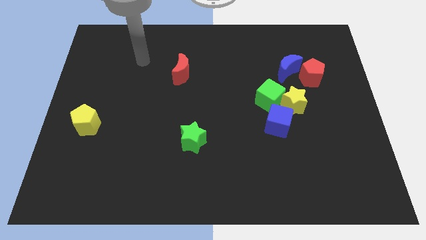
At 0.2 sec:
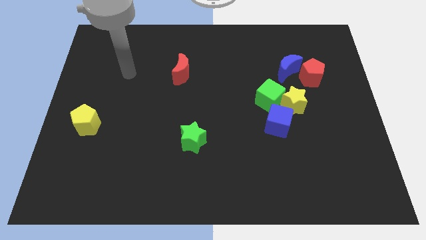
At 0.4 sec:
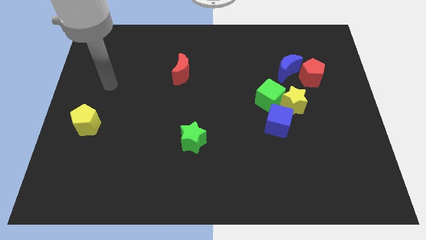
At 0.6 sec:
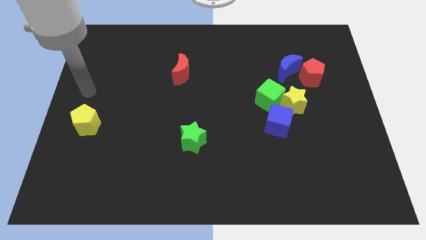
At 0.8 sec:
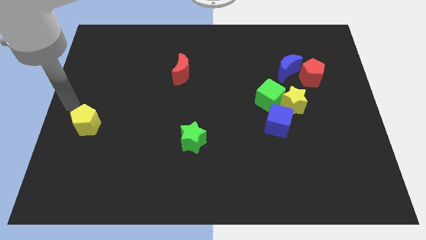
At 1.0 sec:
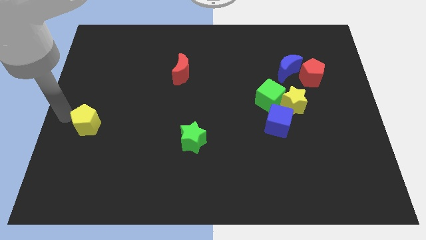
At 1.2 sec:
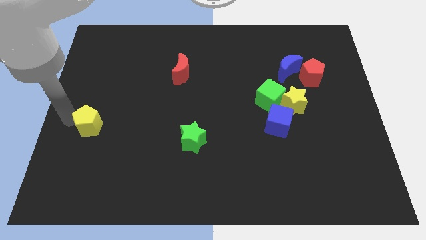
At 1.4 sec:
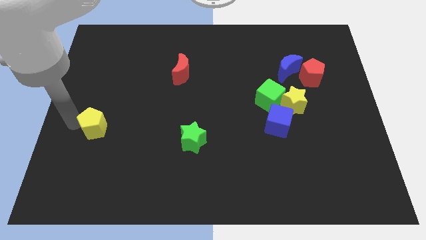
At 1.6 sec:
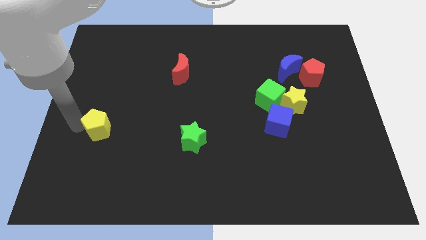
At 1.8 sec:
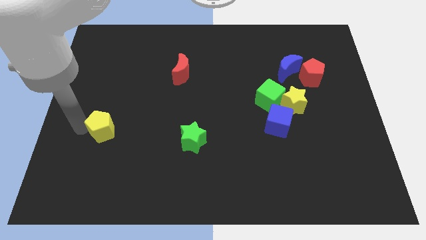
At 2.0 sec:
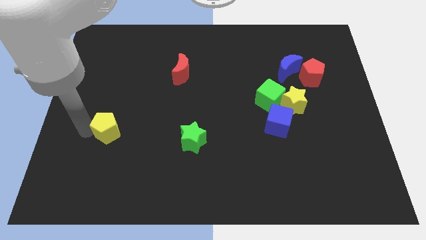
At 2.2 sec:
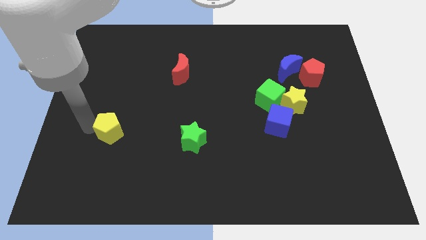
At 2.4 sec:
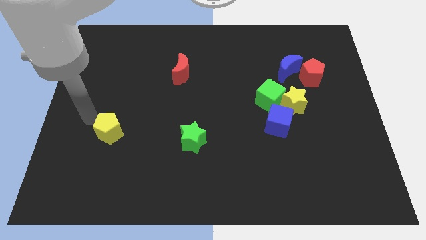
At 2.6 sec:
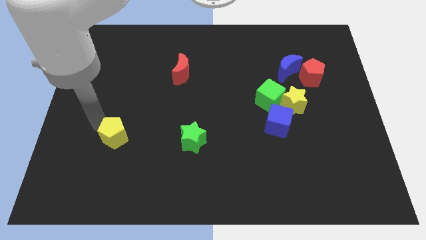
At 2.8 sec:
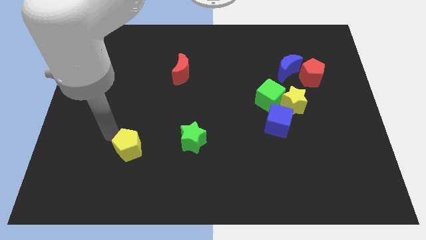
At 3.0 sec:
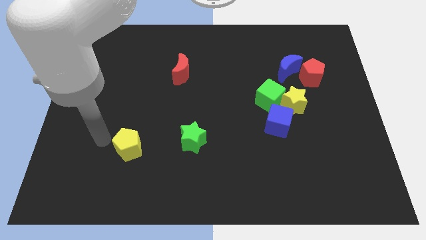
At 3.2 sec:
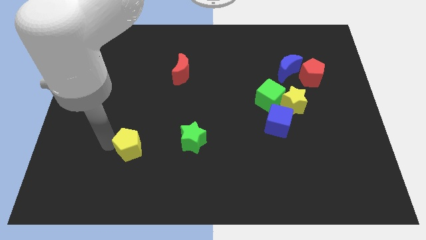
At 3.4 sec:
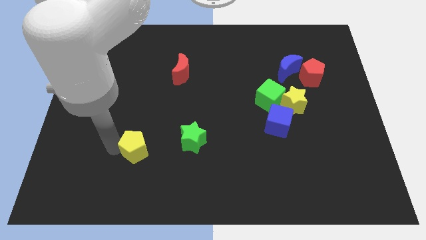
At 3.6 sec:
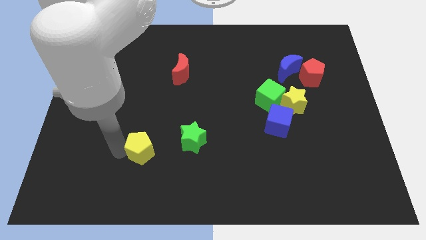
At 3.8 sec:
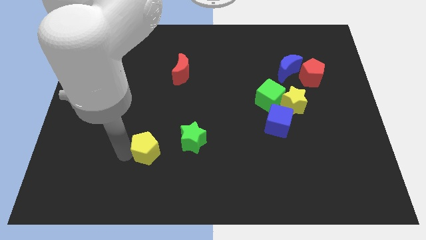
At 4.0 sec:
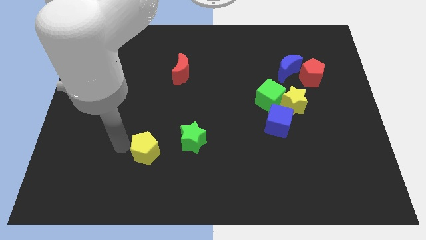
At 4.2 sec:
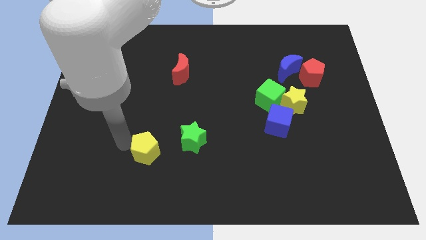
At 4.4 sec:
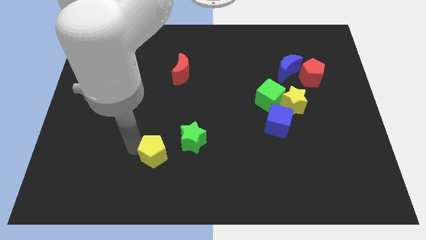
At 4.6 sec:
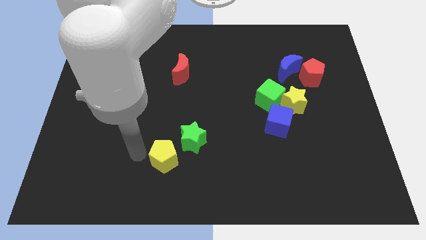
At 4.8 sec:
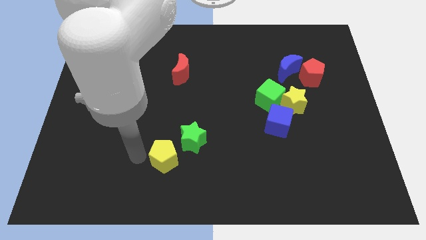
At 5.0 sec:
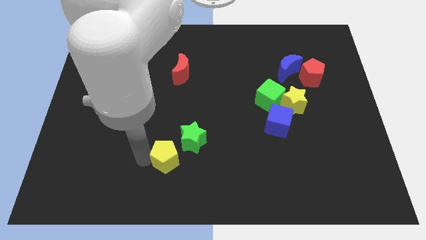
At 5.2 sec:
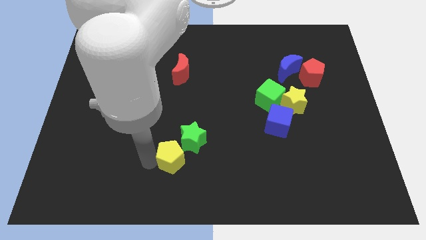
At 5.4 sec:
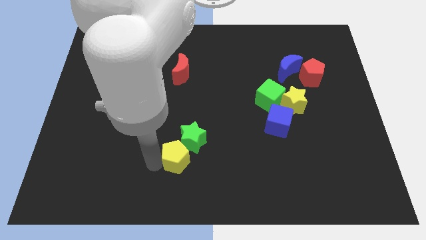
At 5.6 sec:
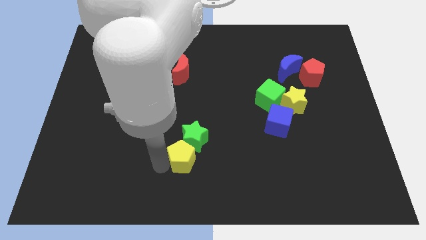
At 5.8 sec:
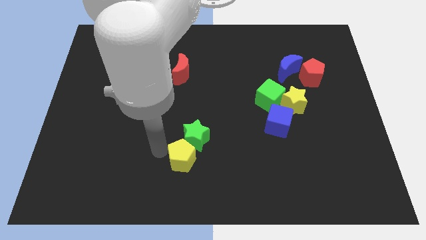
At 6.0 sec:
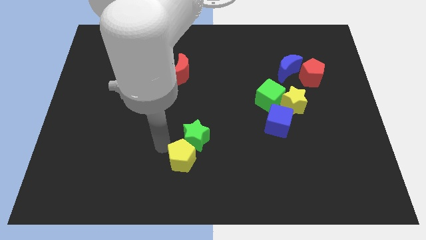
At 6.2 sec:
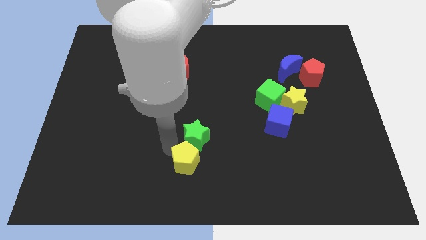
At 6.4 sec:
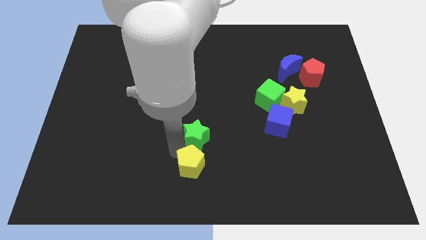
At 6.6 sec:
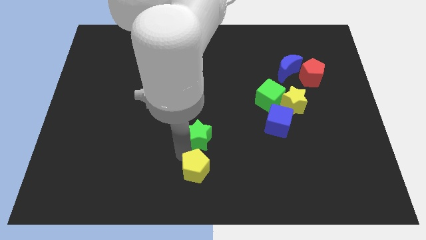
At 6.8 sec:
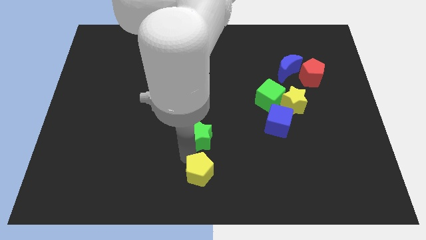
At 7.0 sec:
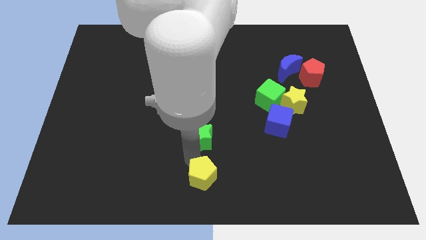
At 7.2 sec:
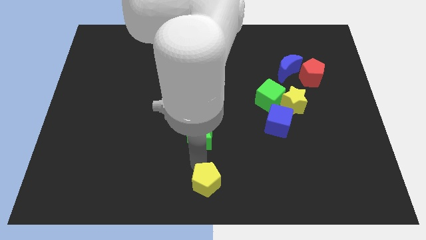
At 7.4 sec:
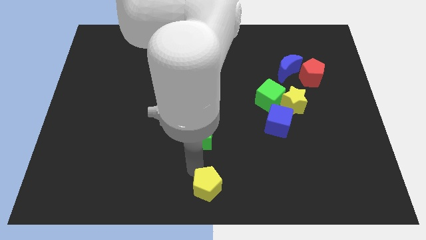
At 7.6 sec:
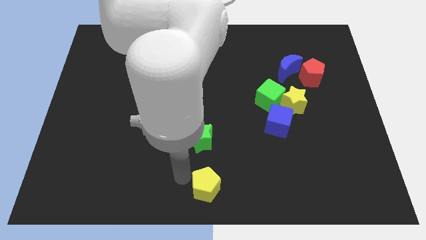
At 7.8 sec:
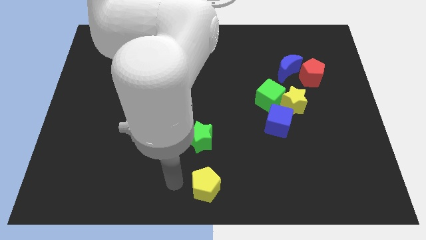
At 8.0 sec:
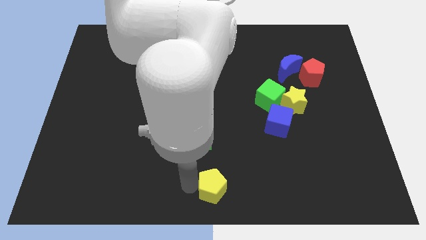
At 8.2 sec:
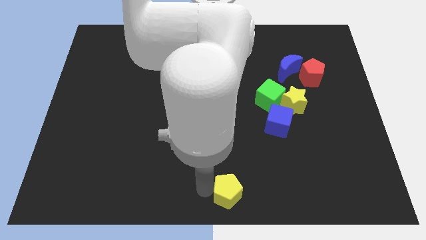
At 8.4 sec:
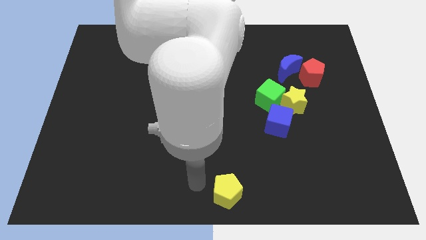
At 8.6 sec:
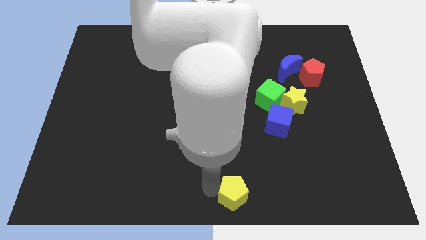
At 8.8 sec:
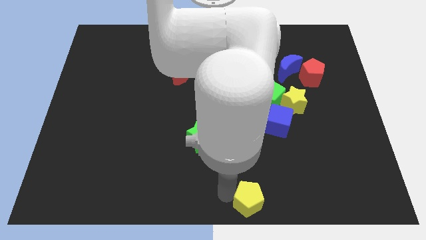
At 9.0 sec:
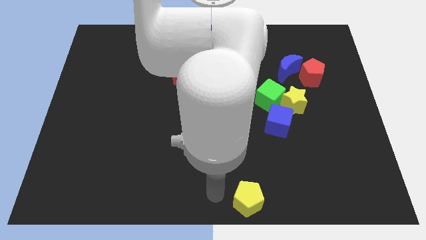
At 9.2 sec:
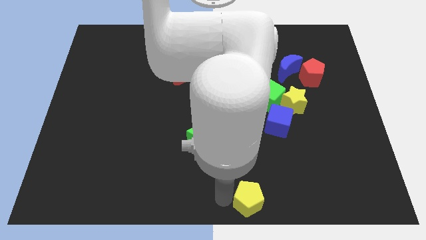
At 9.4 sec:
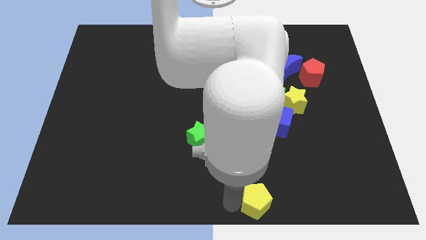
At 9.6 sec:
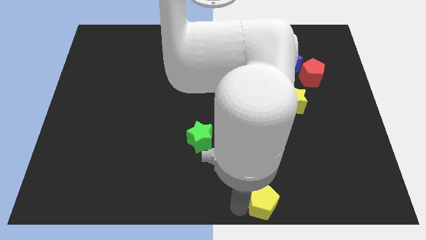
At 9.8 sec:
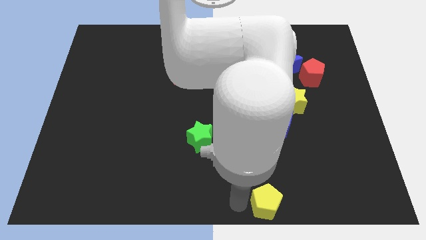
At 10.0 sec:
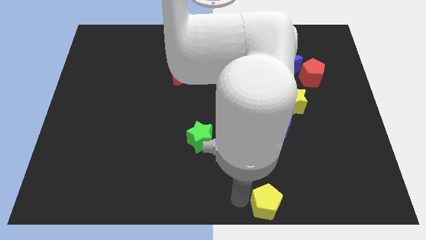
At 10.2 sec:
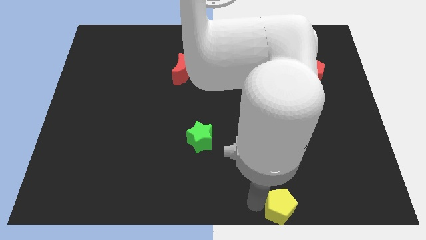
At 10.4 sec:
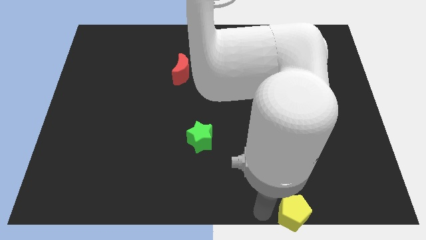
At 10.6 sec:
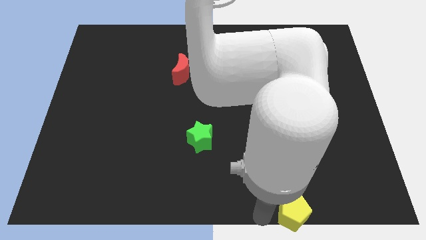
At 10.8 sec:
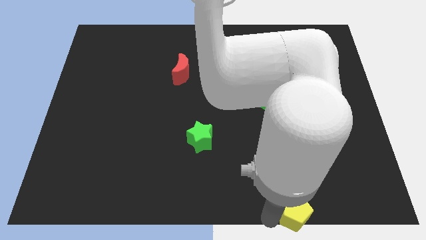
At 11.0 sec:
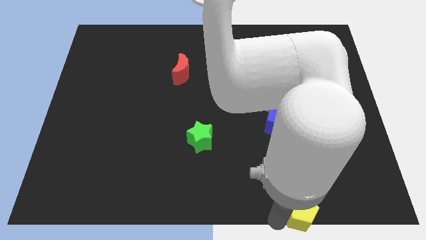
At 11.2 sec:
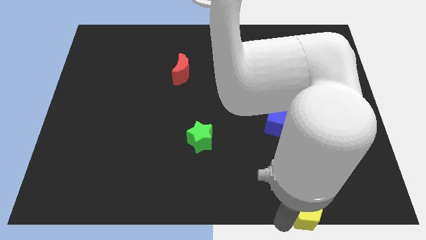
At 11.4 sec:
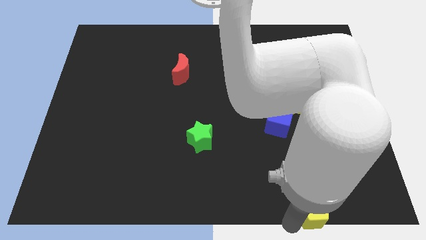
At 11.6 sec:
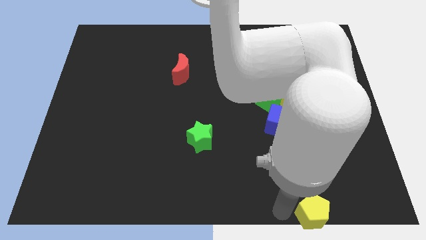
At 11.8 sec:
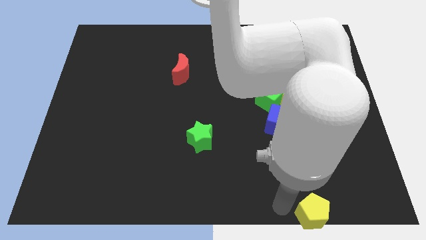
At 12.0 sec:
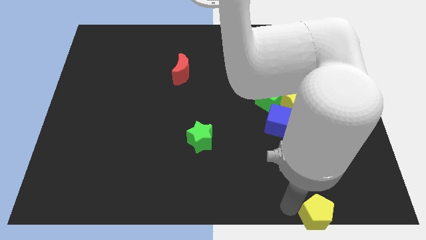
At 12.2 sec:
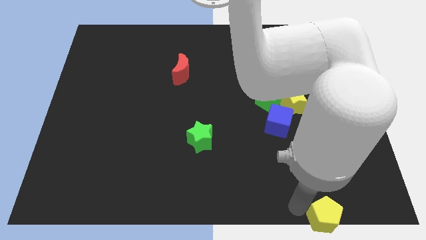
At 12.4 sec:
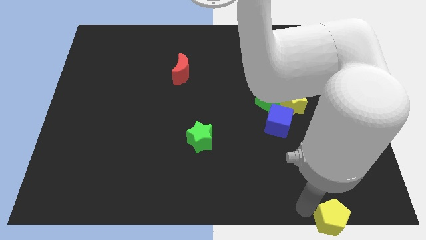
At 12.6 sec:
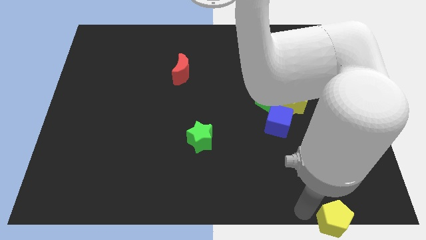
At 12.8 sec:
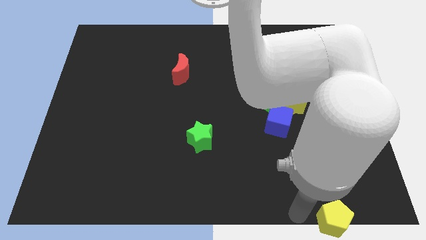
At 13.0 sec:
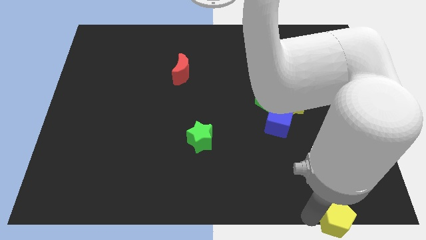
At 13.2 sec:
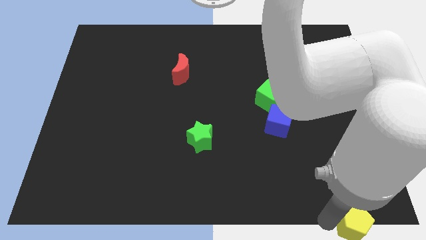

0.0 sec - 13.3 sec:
put the yellow pentagon to the lower right corner

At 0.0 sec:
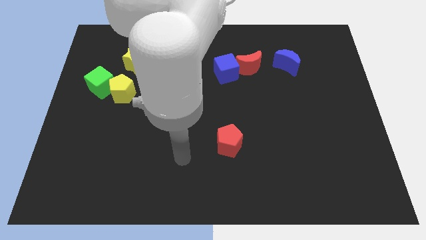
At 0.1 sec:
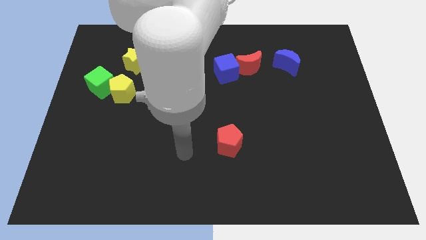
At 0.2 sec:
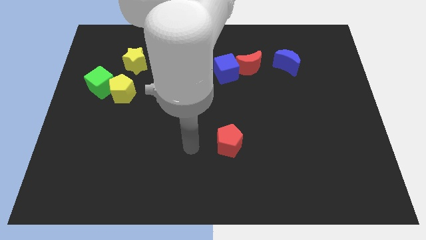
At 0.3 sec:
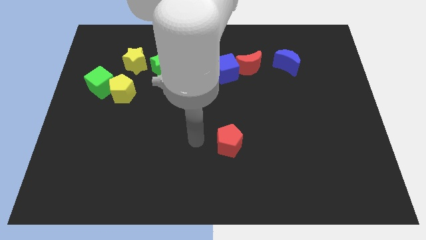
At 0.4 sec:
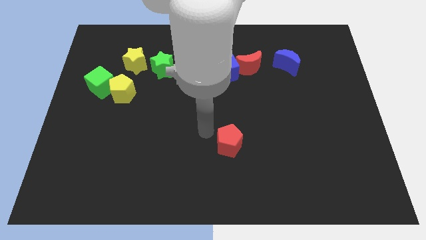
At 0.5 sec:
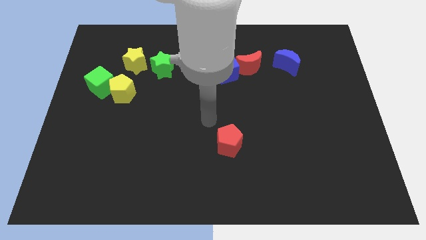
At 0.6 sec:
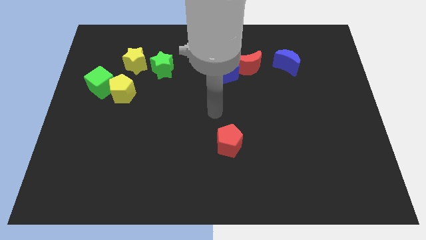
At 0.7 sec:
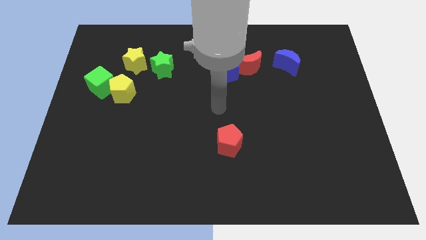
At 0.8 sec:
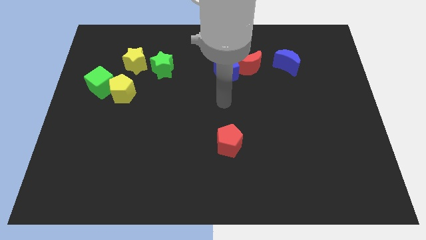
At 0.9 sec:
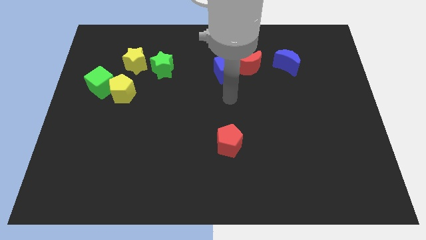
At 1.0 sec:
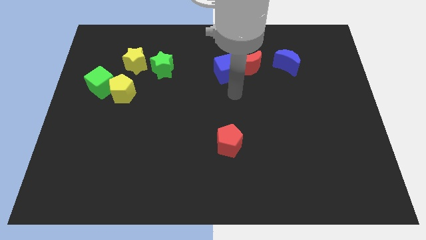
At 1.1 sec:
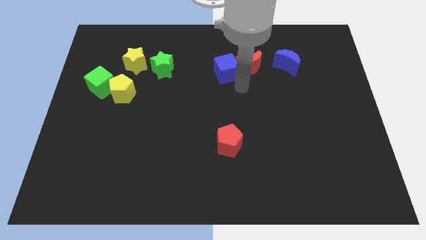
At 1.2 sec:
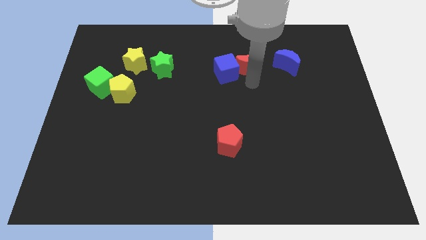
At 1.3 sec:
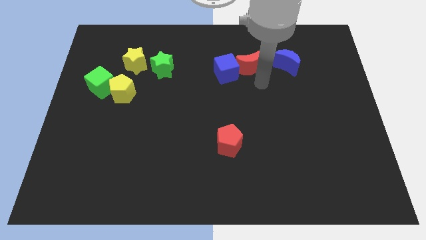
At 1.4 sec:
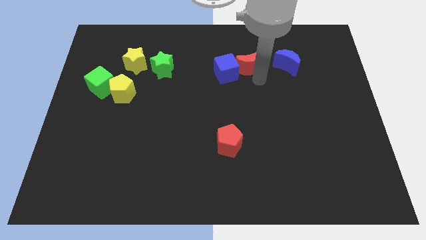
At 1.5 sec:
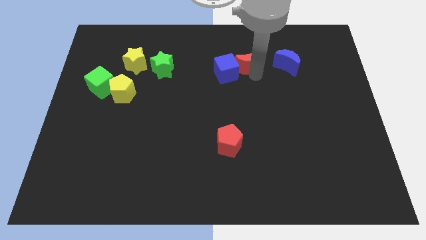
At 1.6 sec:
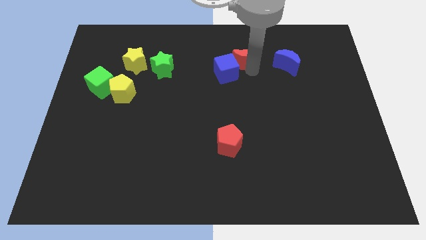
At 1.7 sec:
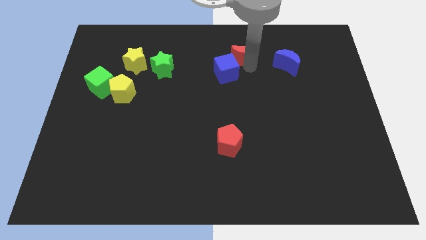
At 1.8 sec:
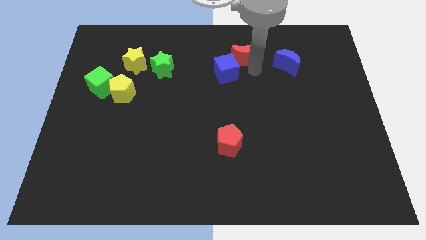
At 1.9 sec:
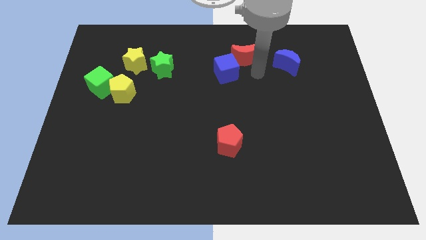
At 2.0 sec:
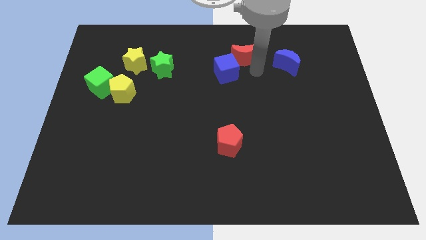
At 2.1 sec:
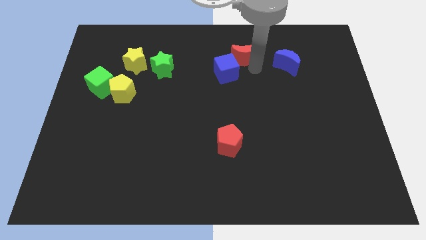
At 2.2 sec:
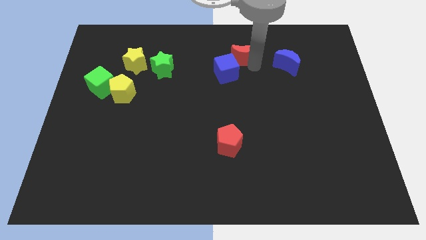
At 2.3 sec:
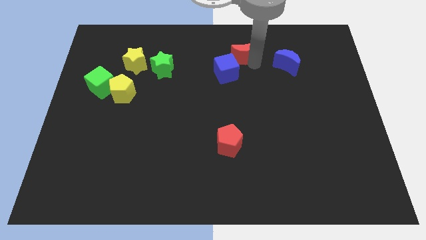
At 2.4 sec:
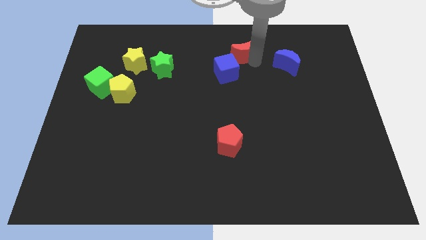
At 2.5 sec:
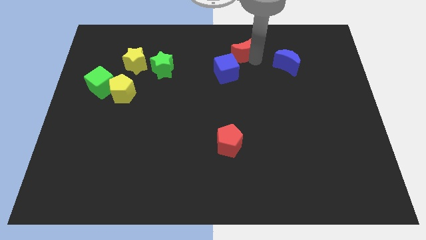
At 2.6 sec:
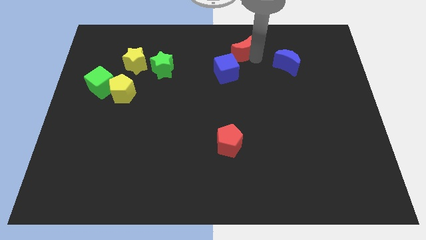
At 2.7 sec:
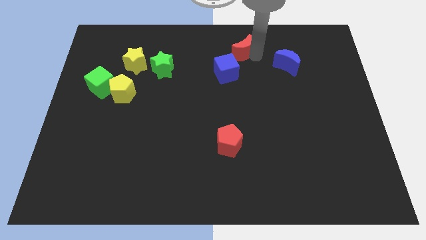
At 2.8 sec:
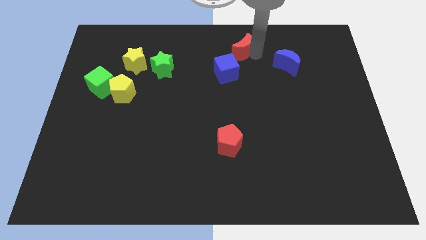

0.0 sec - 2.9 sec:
push the red moon to the top
